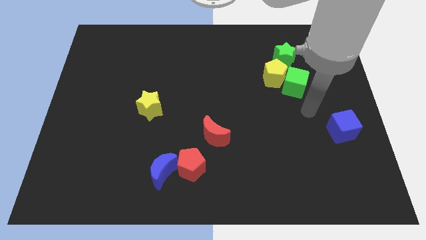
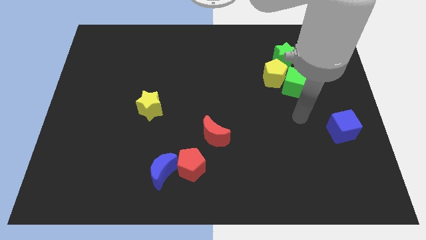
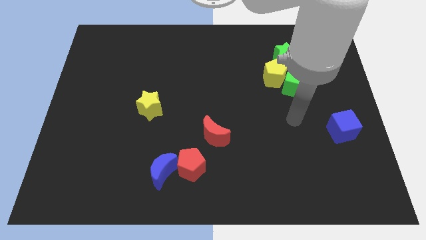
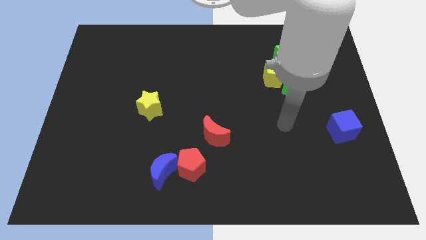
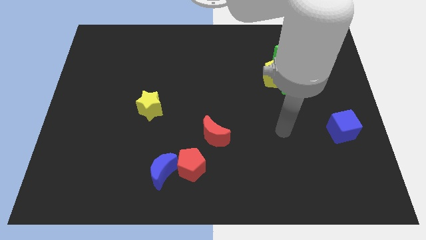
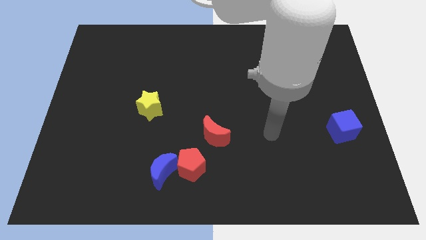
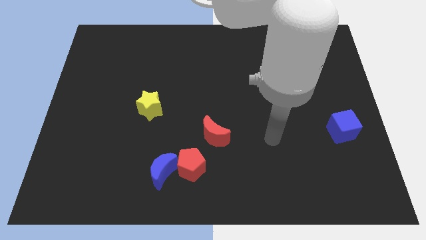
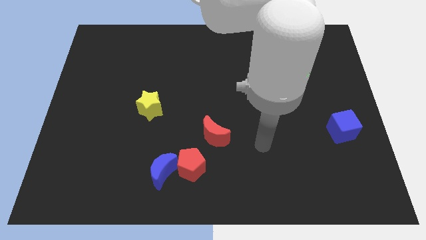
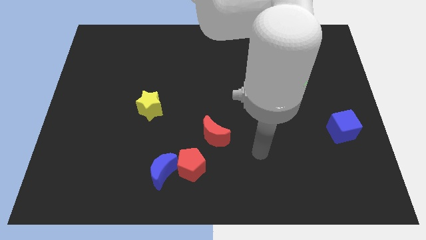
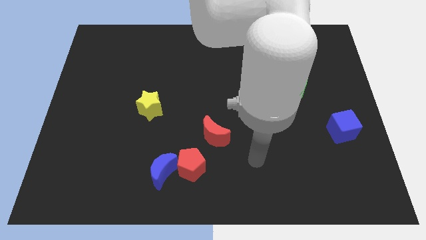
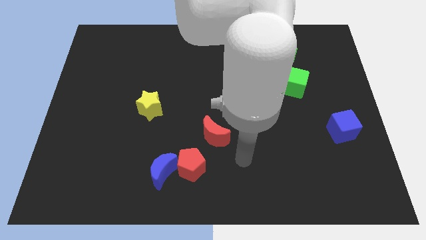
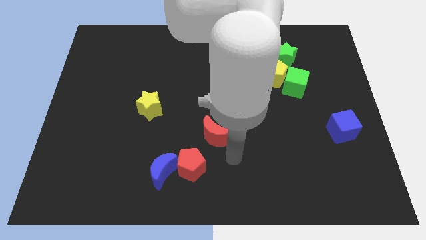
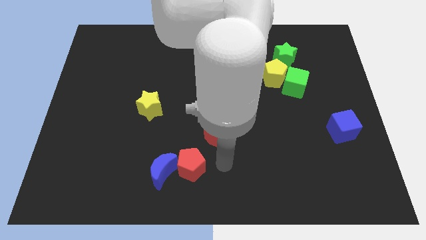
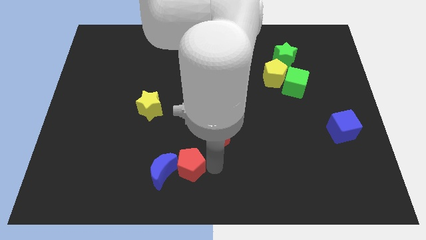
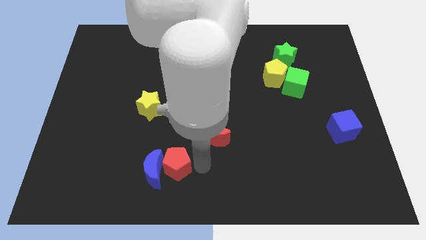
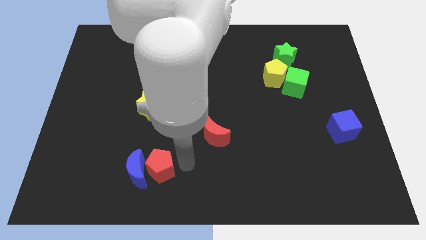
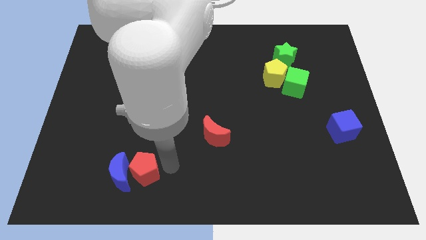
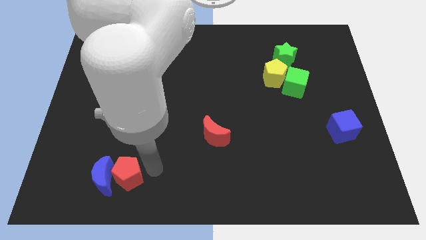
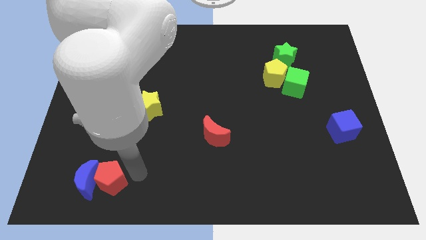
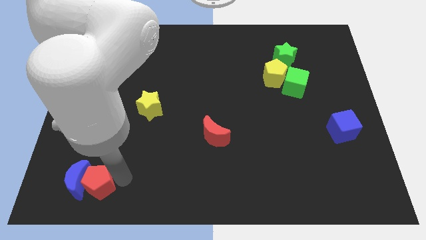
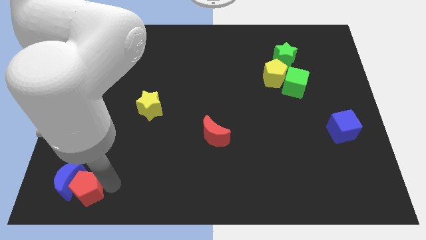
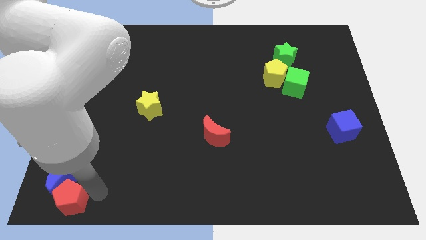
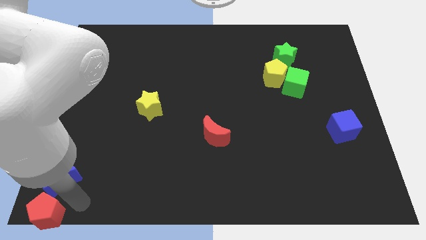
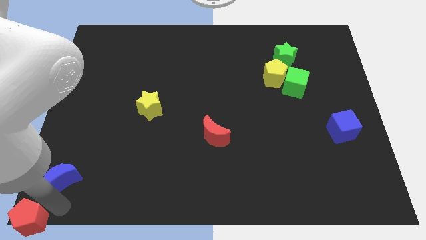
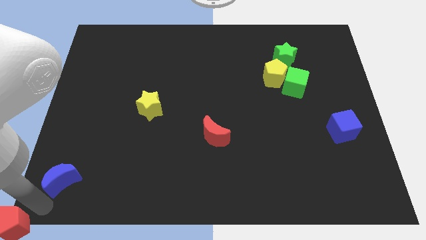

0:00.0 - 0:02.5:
move the blue moon away from the red pentagon

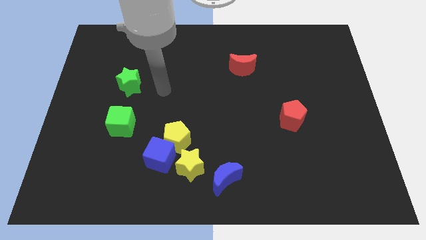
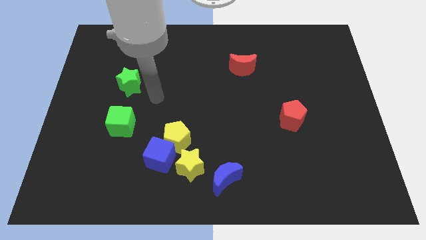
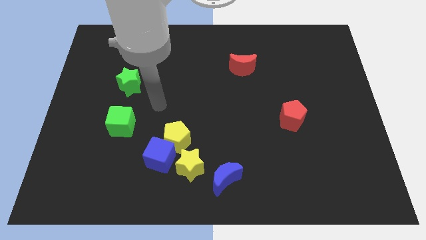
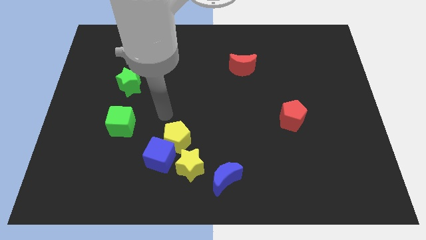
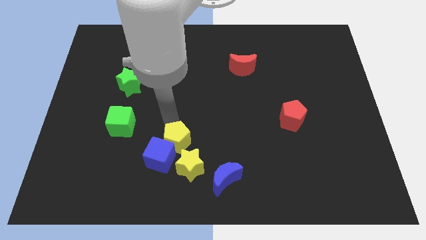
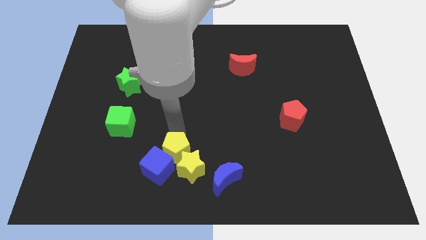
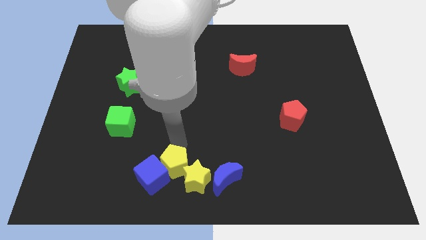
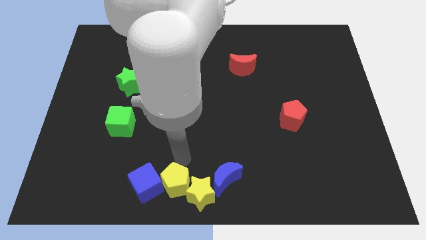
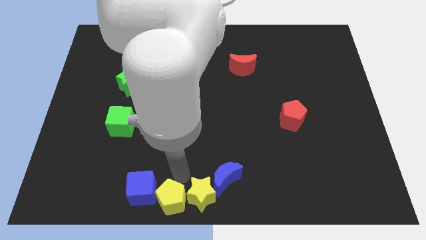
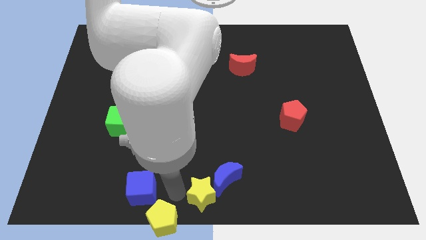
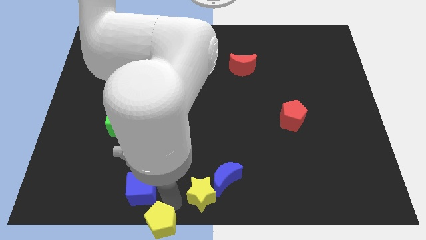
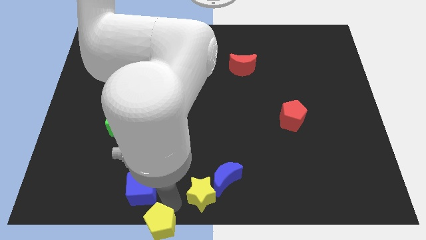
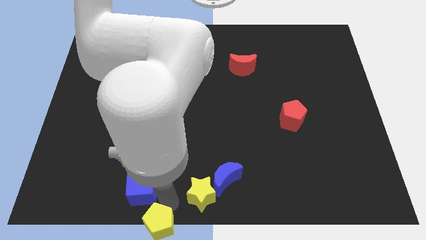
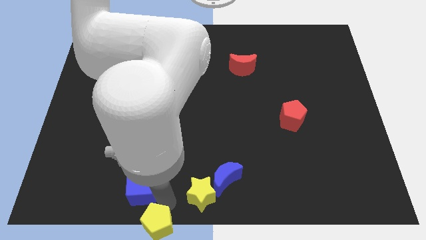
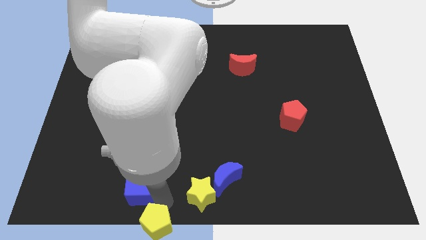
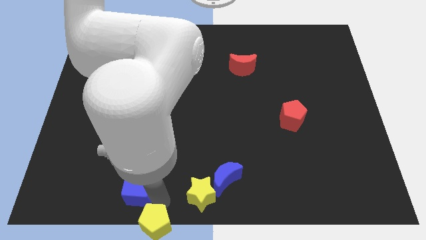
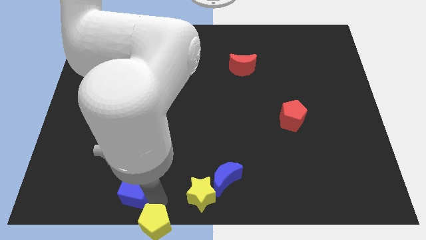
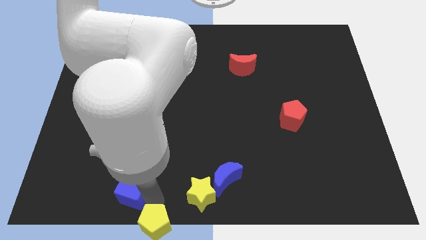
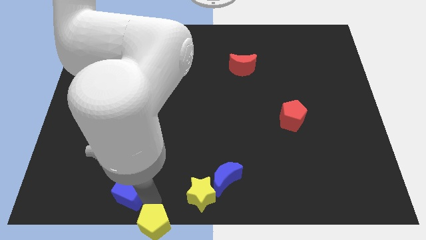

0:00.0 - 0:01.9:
pull the blue cube apart from the yellow pentagon and yellow star

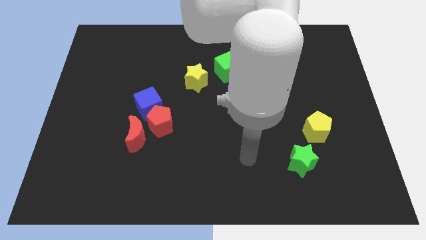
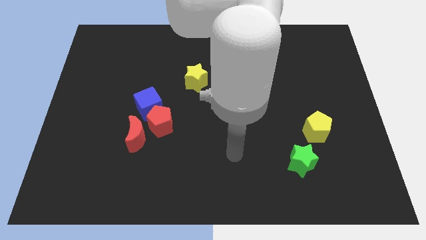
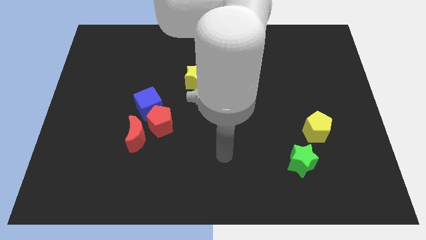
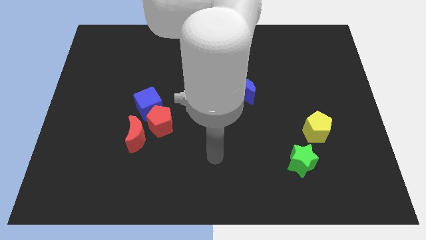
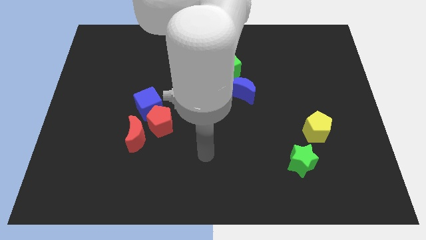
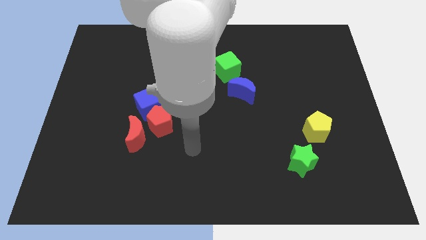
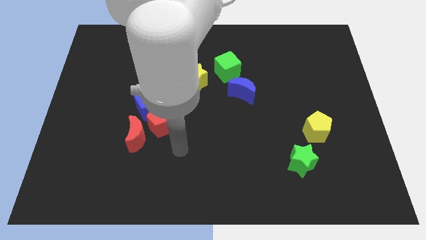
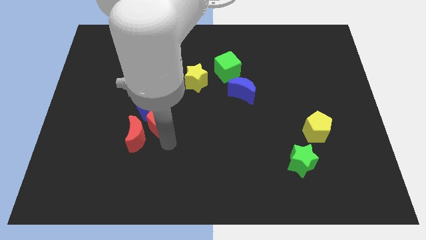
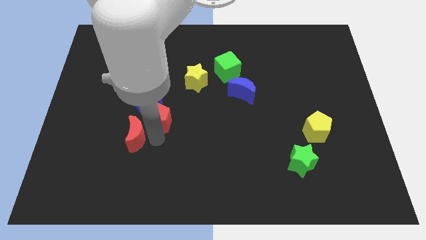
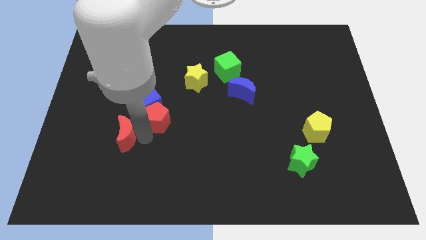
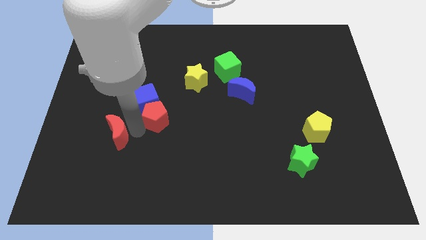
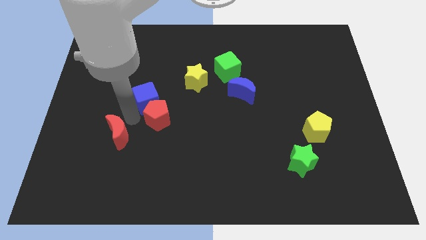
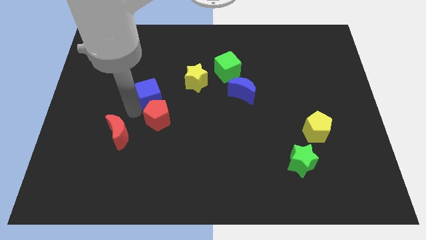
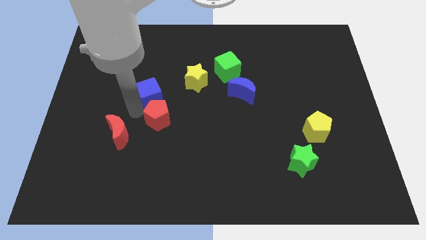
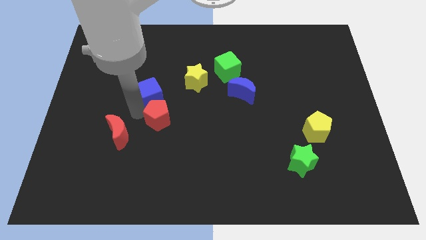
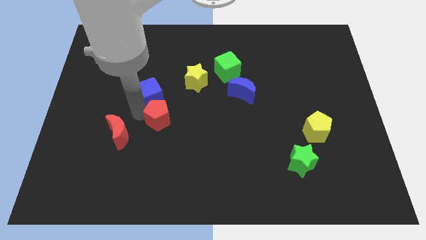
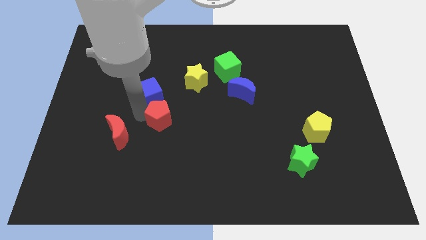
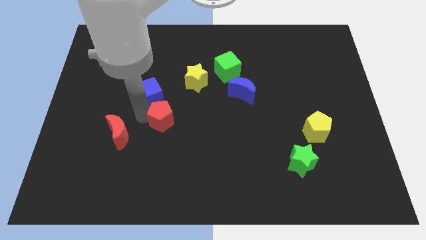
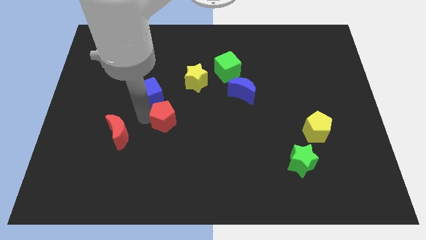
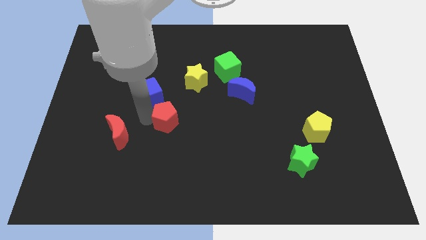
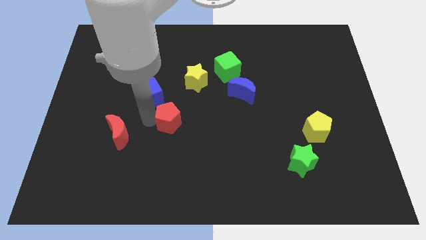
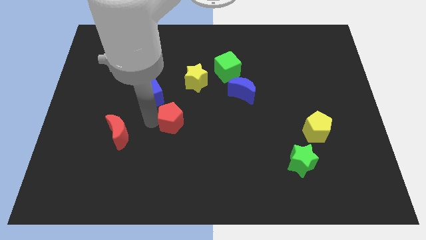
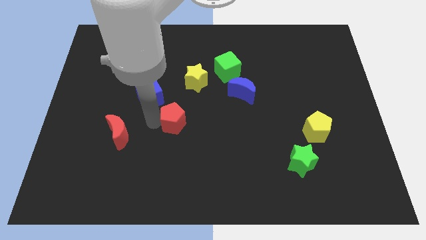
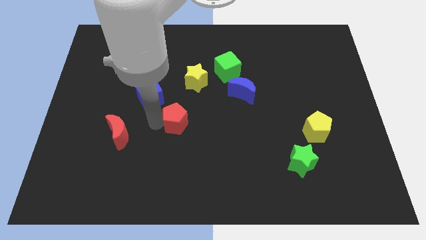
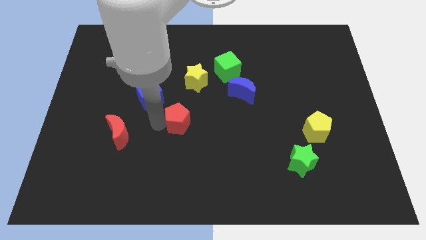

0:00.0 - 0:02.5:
separate the red pentagon from the blue cube and red moon

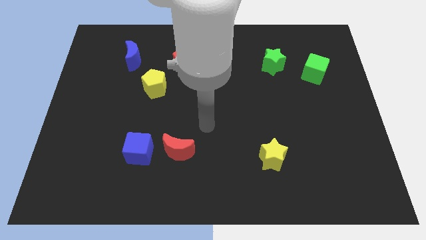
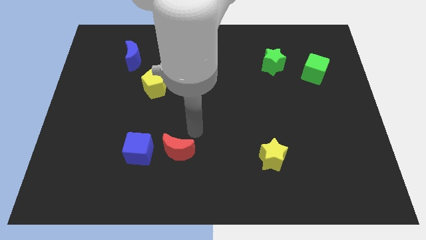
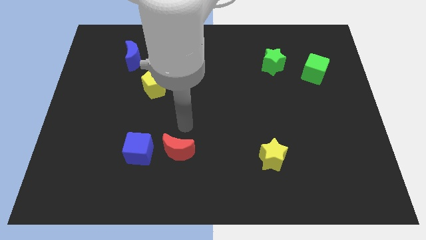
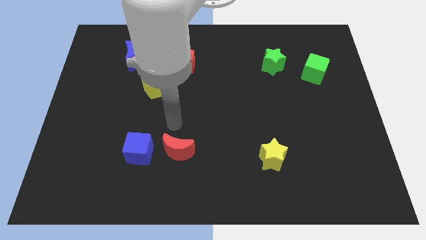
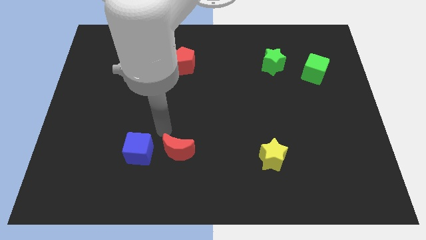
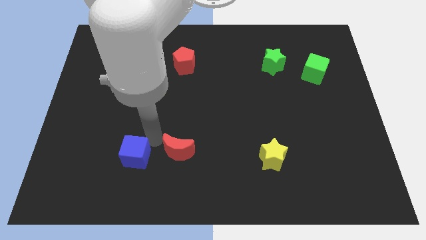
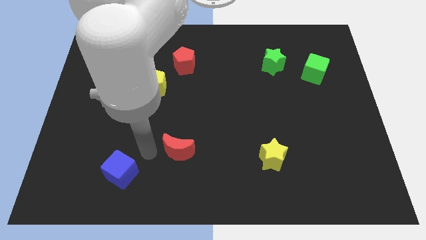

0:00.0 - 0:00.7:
pull the red moon apart from the blue cube

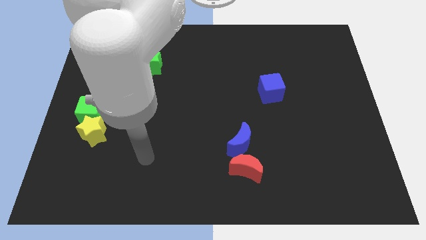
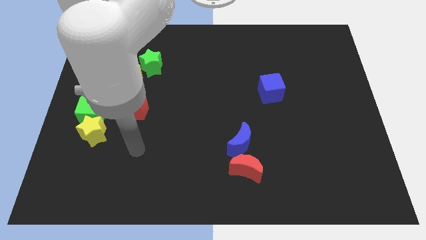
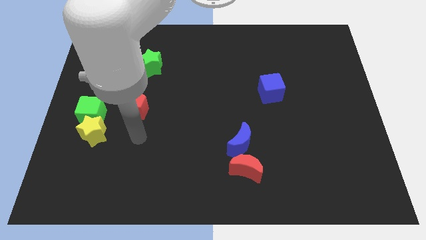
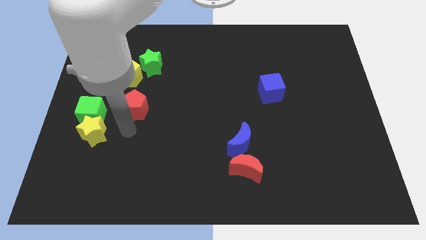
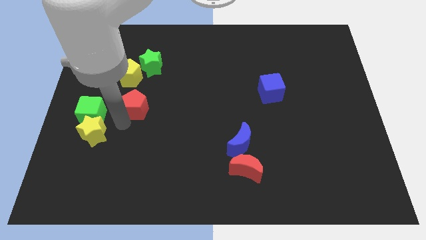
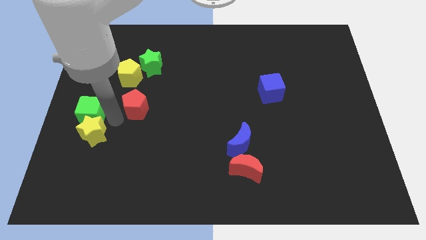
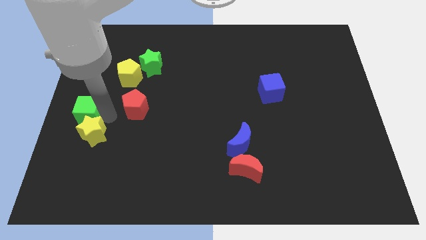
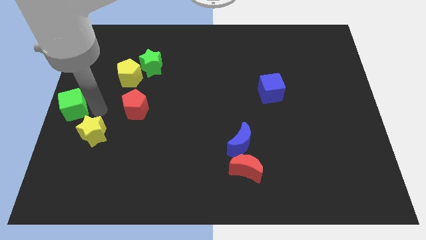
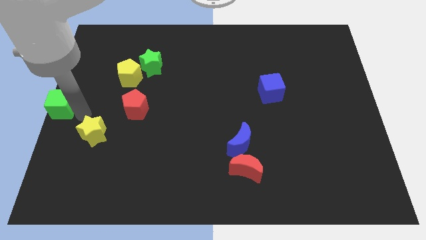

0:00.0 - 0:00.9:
move the yellow star away from the green cube

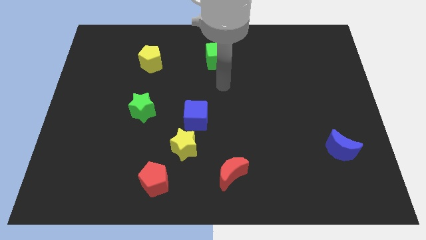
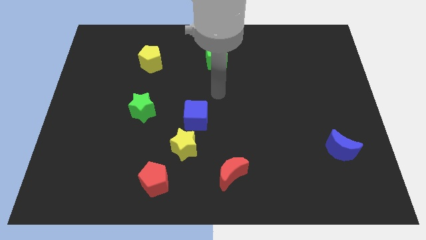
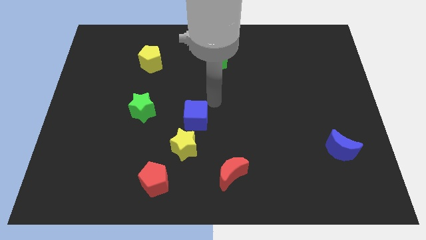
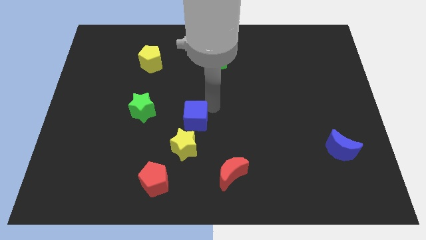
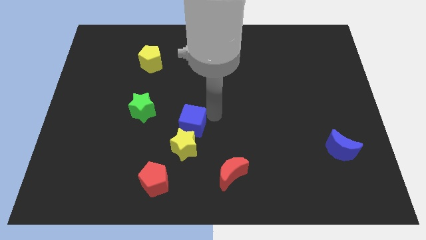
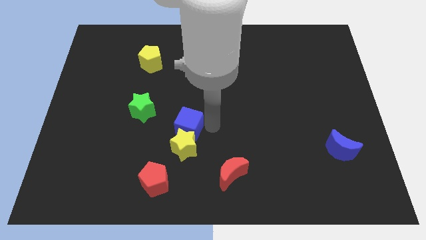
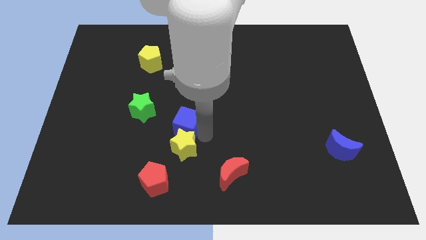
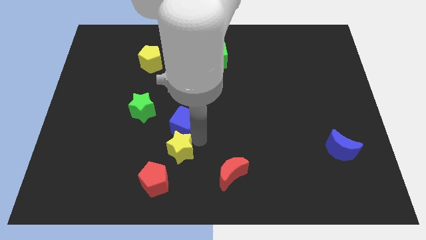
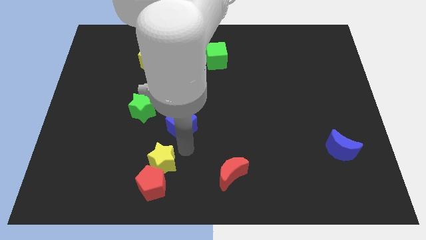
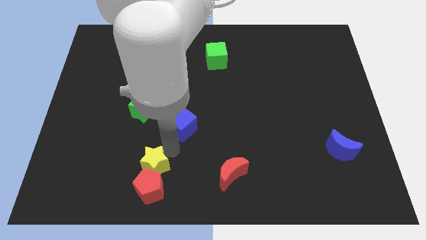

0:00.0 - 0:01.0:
separate the blue cube from the yellow star
